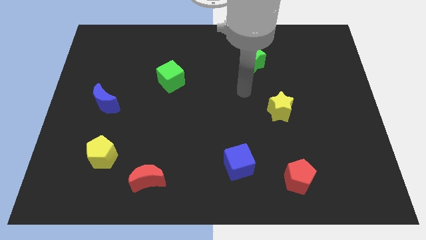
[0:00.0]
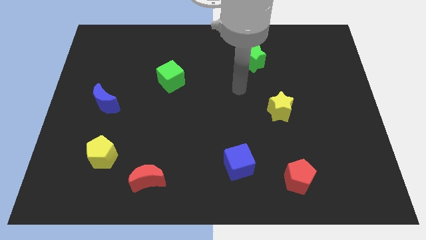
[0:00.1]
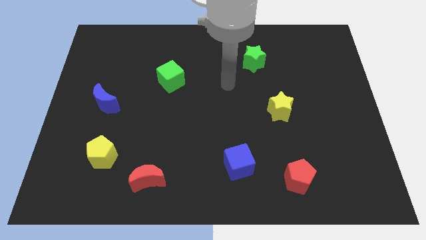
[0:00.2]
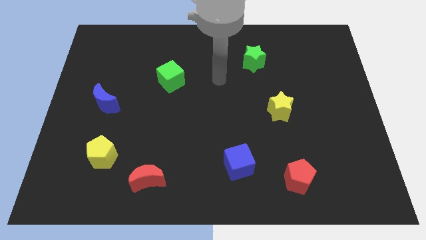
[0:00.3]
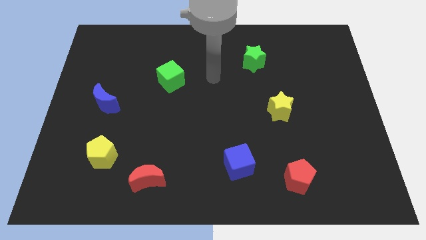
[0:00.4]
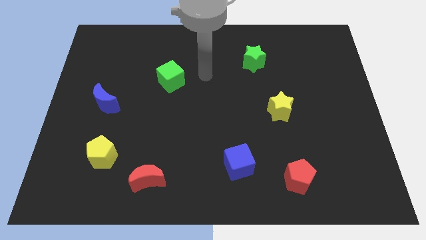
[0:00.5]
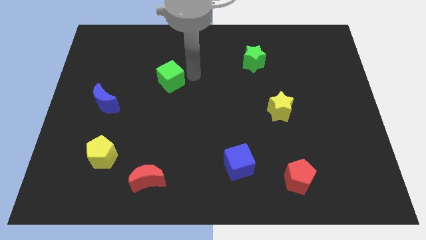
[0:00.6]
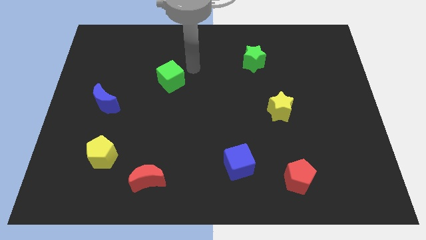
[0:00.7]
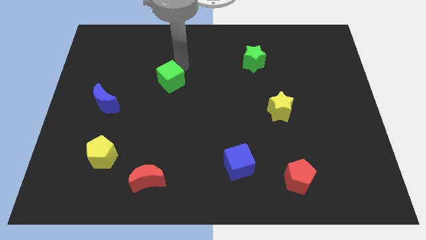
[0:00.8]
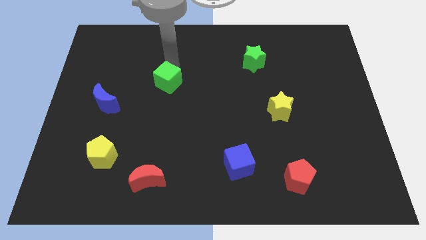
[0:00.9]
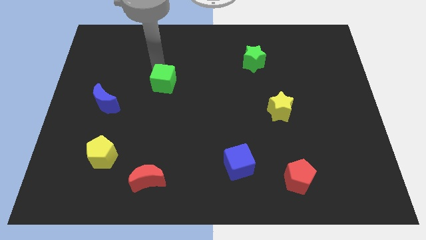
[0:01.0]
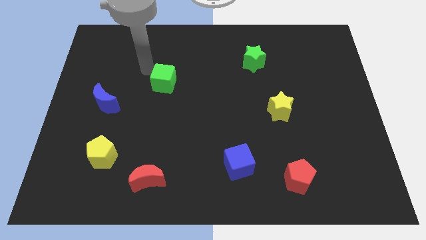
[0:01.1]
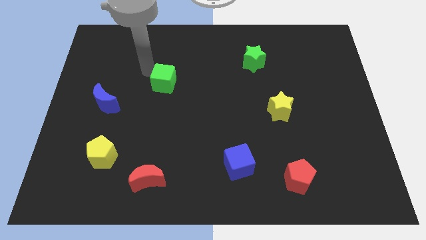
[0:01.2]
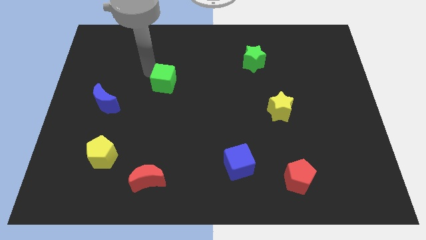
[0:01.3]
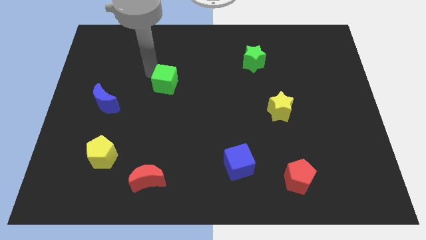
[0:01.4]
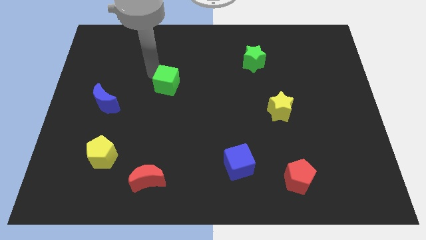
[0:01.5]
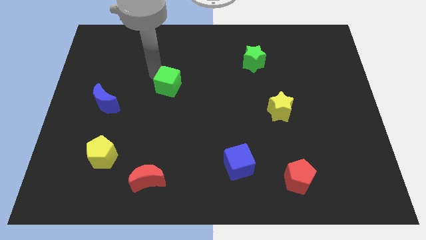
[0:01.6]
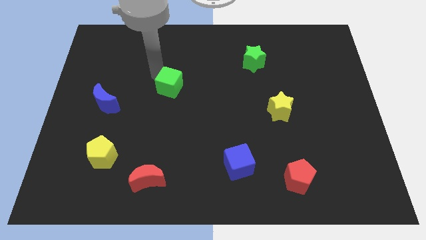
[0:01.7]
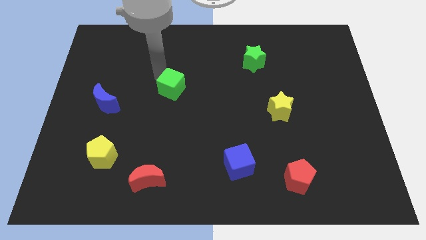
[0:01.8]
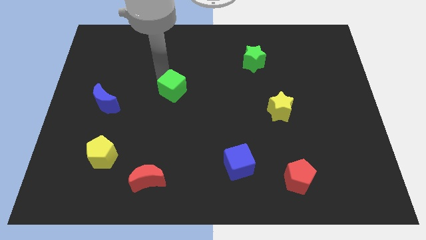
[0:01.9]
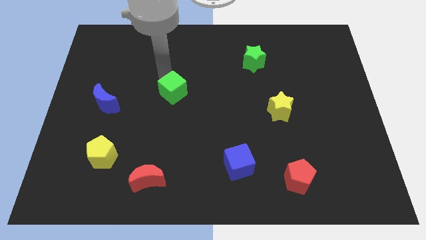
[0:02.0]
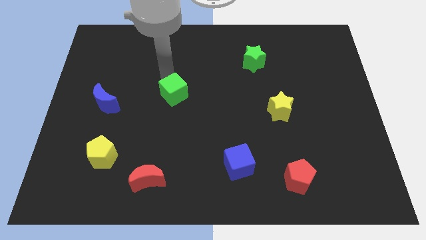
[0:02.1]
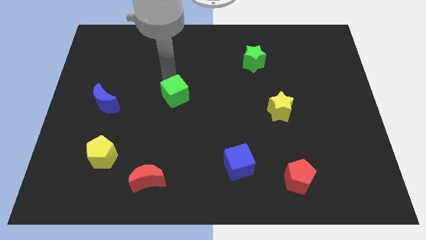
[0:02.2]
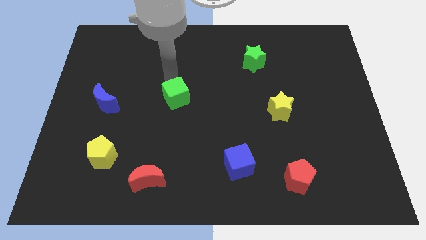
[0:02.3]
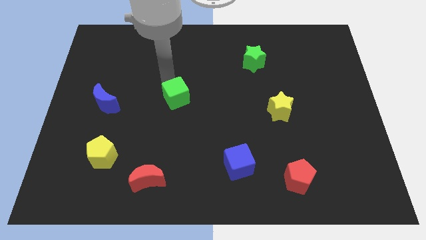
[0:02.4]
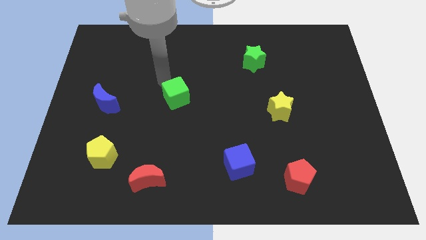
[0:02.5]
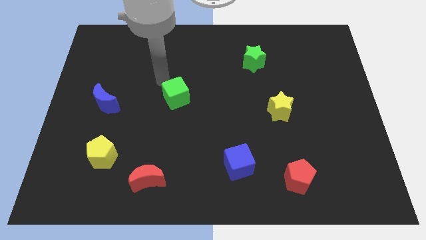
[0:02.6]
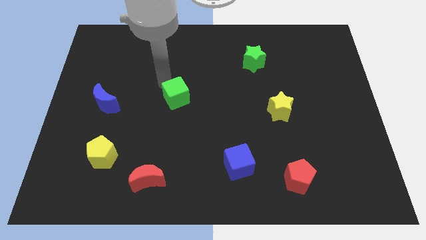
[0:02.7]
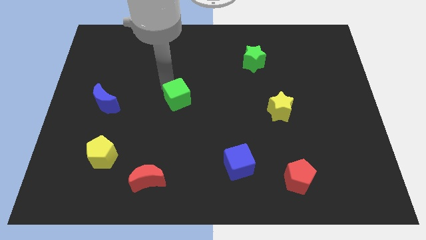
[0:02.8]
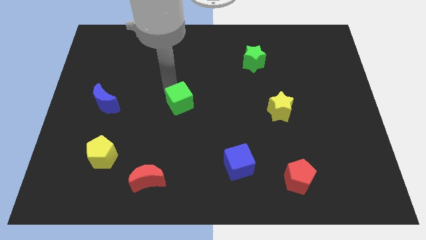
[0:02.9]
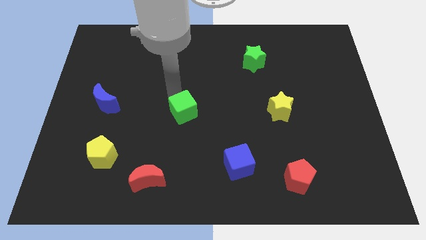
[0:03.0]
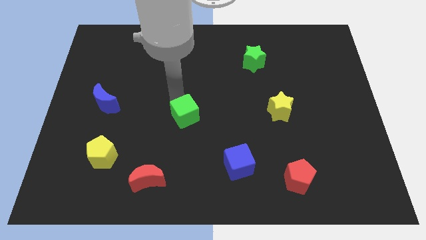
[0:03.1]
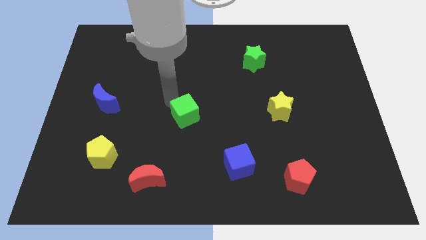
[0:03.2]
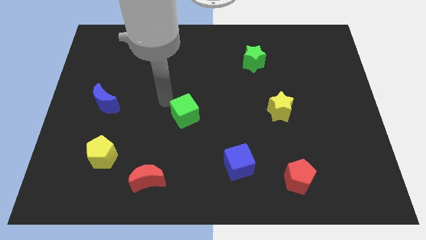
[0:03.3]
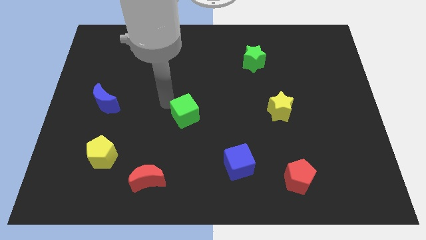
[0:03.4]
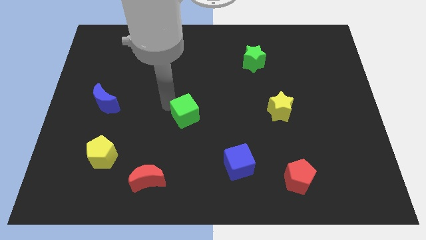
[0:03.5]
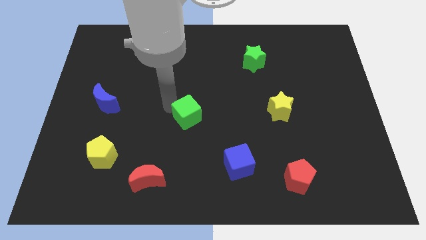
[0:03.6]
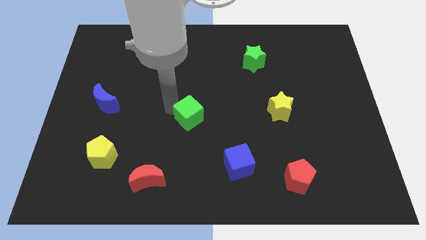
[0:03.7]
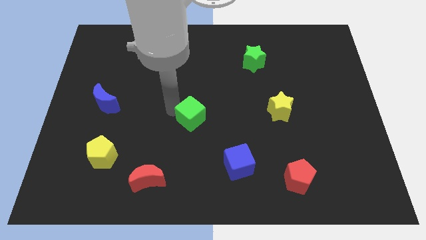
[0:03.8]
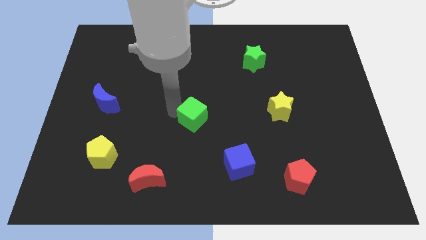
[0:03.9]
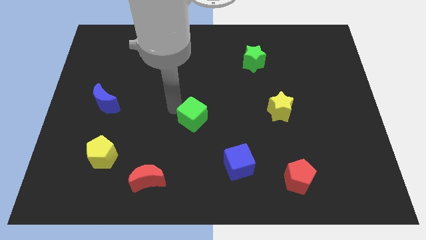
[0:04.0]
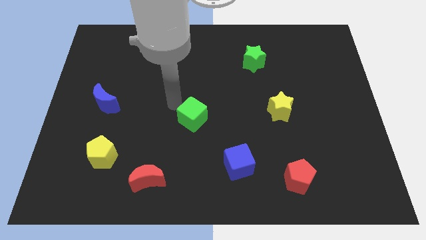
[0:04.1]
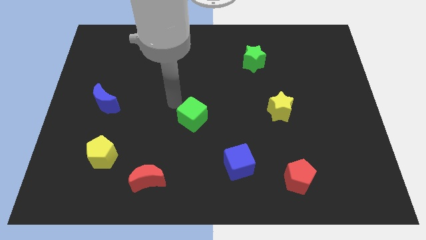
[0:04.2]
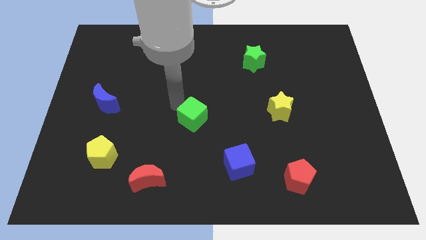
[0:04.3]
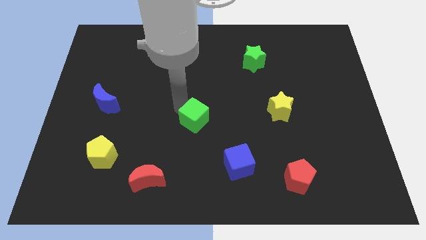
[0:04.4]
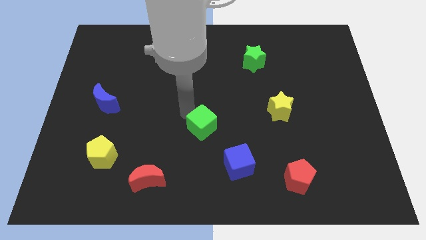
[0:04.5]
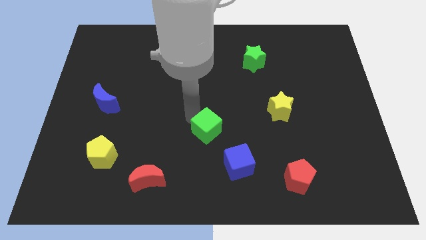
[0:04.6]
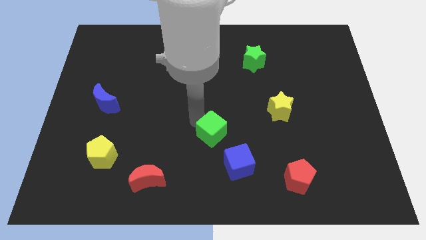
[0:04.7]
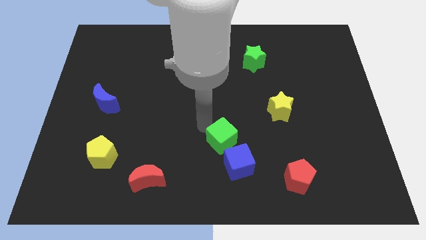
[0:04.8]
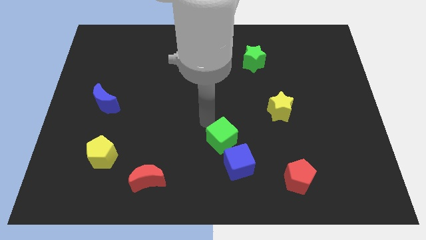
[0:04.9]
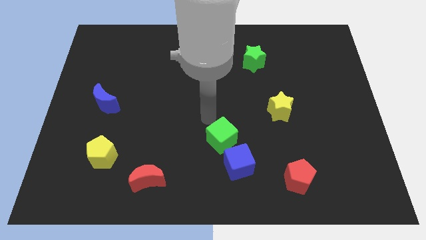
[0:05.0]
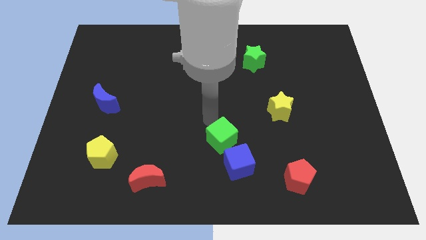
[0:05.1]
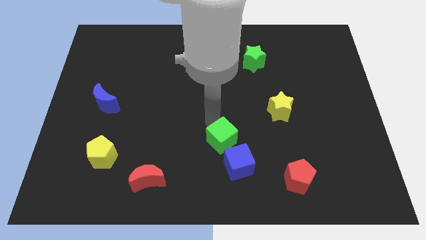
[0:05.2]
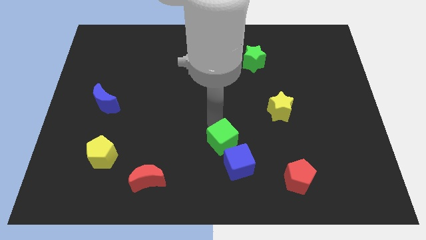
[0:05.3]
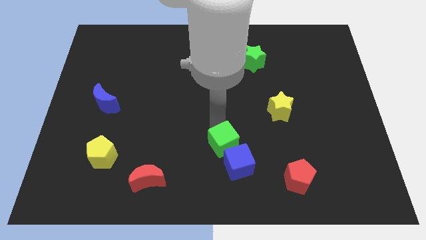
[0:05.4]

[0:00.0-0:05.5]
push the green cube to the blue cube

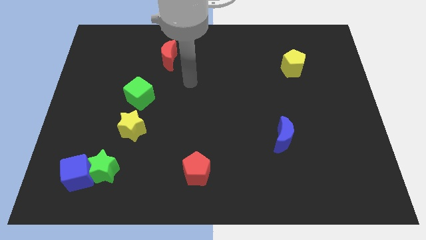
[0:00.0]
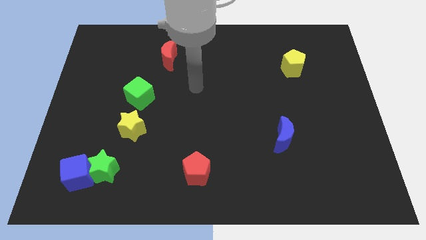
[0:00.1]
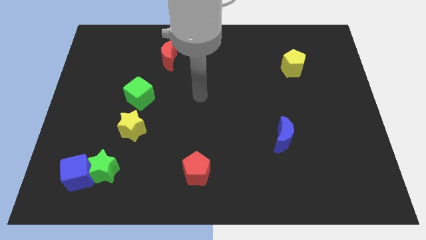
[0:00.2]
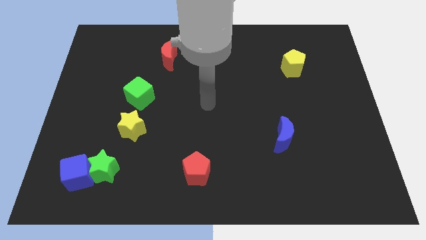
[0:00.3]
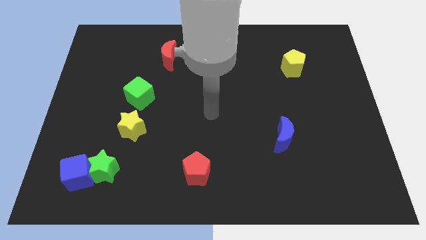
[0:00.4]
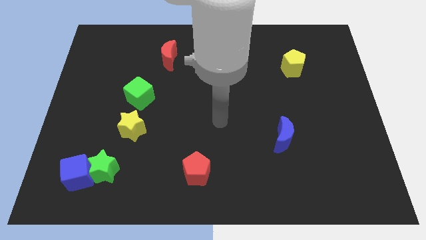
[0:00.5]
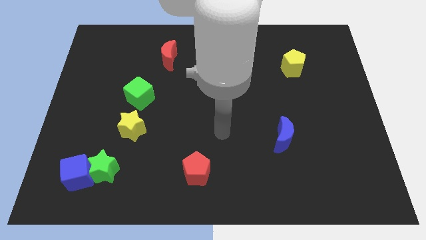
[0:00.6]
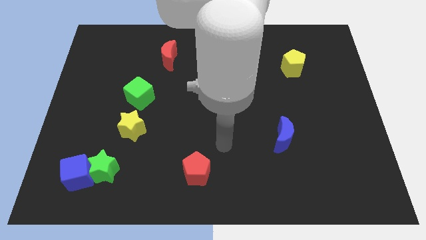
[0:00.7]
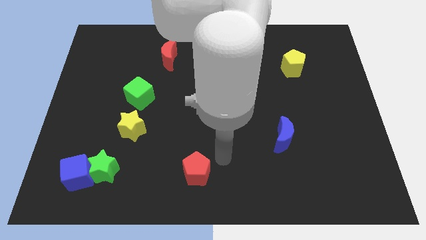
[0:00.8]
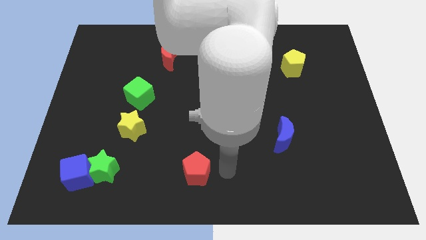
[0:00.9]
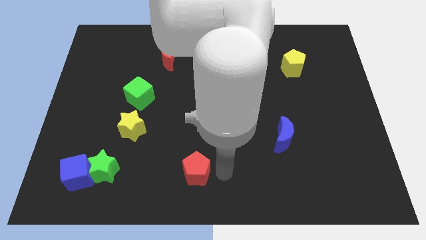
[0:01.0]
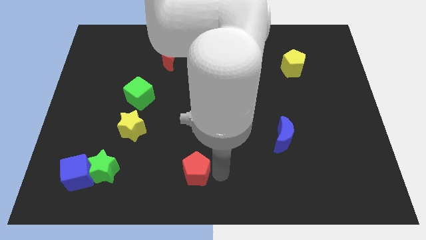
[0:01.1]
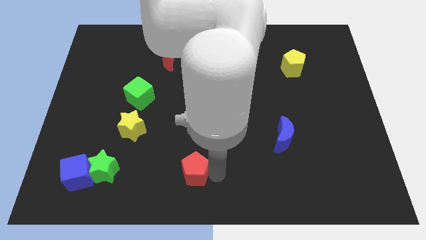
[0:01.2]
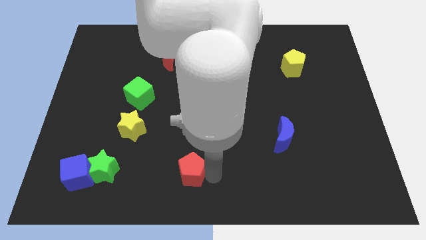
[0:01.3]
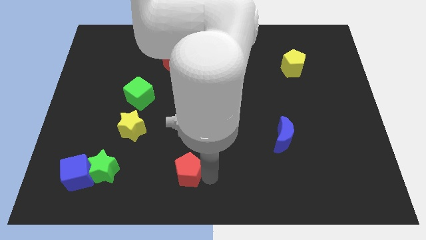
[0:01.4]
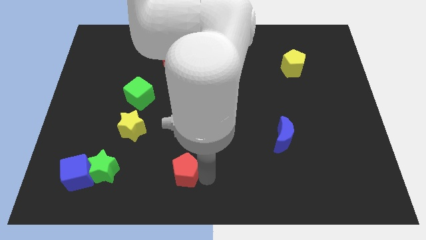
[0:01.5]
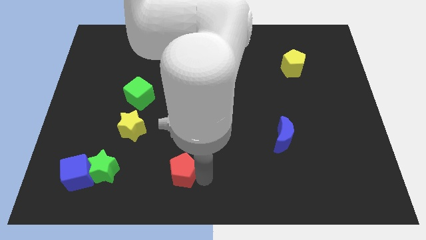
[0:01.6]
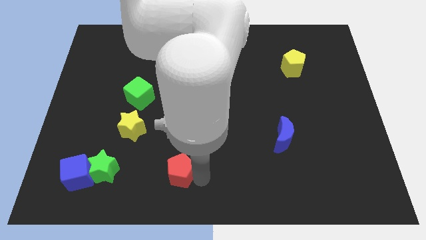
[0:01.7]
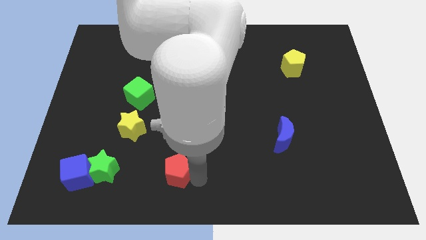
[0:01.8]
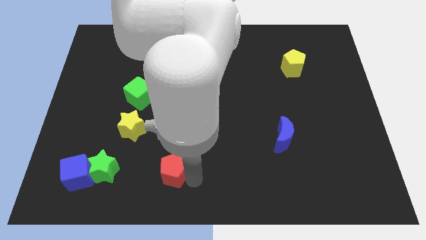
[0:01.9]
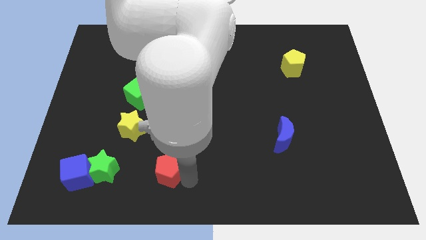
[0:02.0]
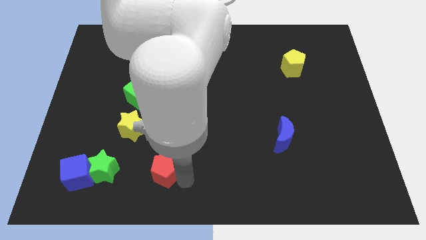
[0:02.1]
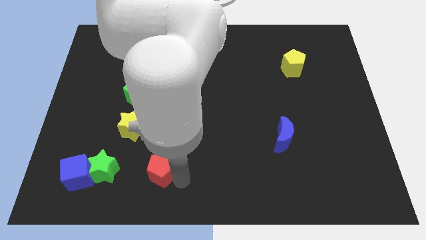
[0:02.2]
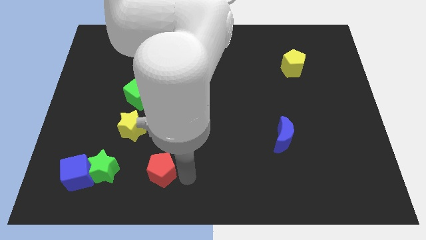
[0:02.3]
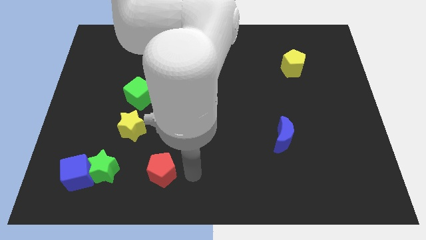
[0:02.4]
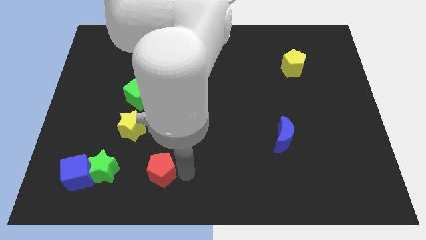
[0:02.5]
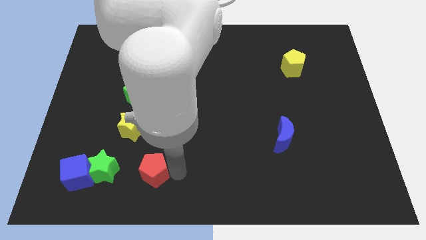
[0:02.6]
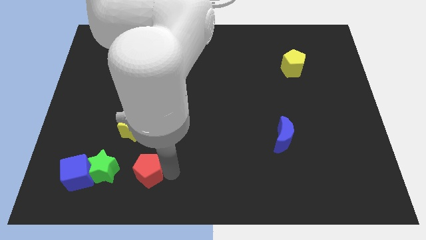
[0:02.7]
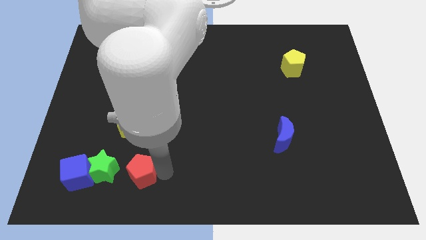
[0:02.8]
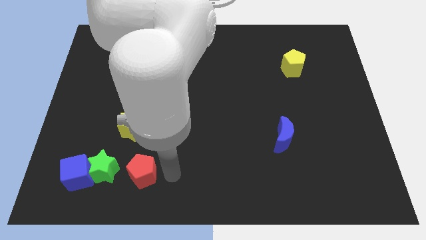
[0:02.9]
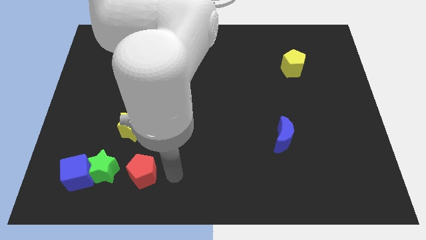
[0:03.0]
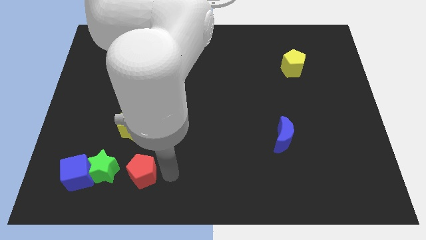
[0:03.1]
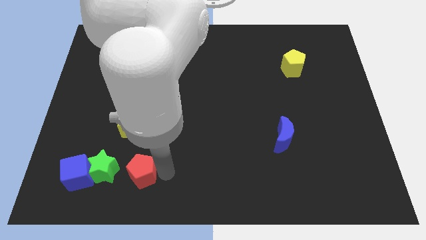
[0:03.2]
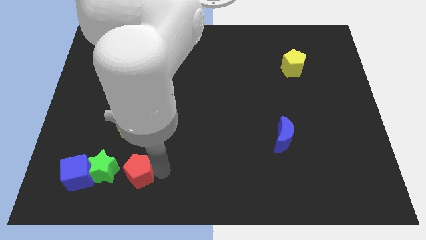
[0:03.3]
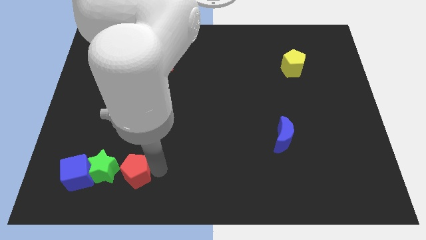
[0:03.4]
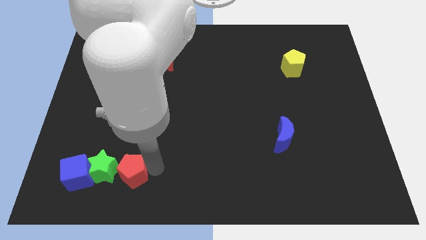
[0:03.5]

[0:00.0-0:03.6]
move the red pentagon next to the green star
